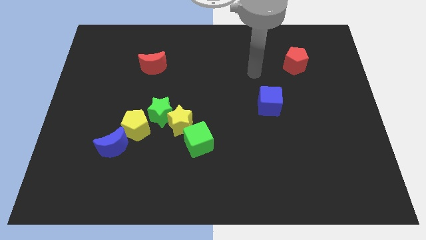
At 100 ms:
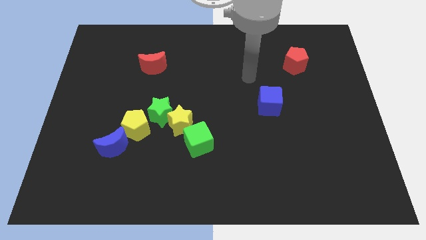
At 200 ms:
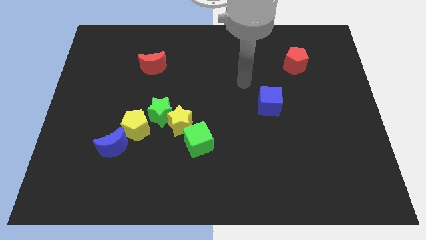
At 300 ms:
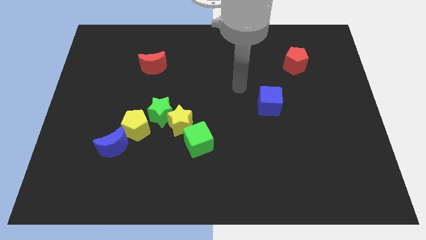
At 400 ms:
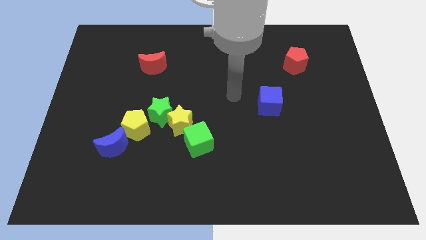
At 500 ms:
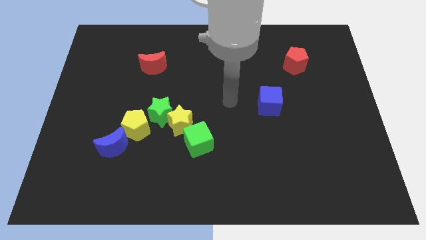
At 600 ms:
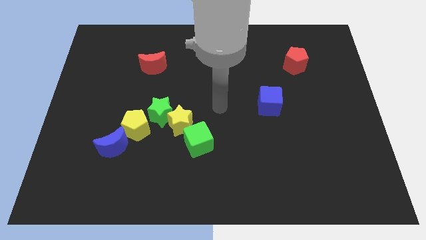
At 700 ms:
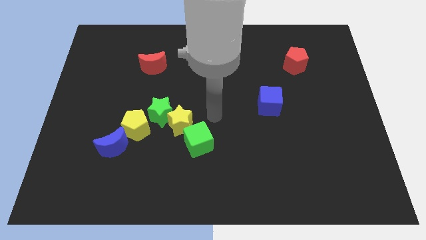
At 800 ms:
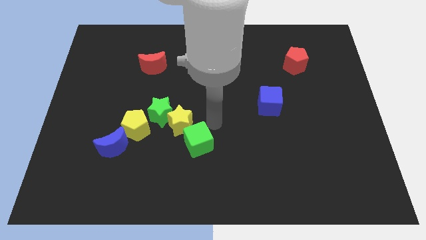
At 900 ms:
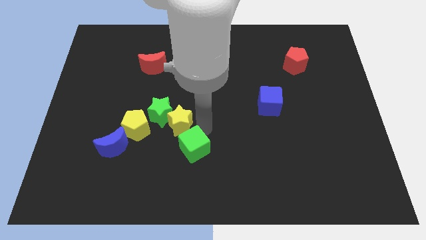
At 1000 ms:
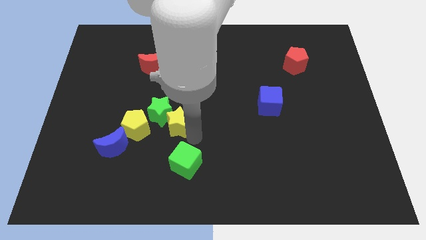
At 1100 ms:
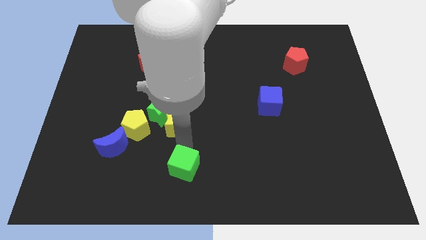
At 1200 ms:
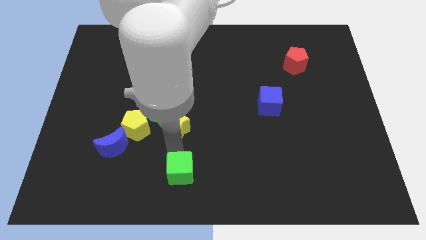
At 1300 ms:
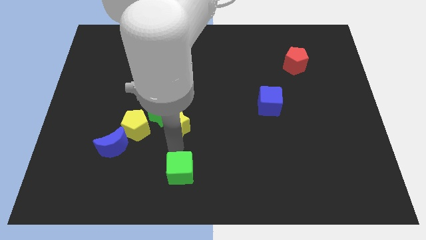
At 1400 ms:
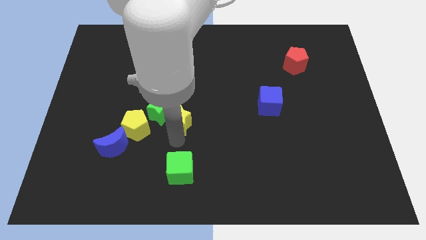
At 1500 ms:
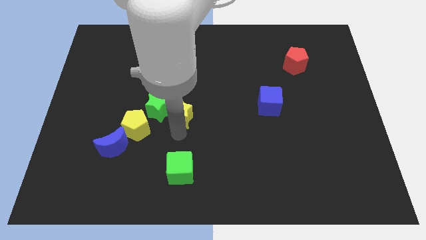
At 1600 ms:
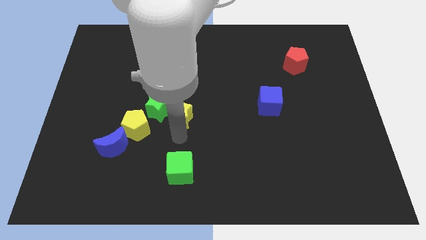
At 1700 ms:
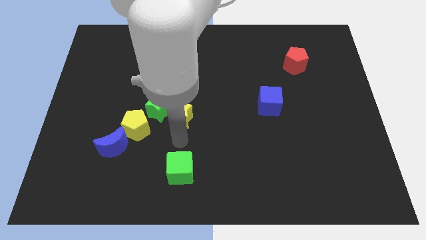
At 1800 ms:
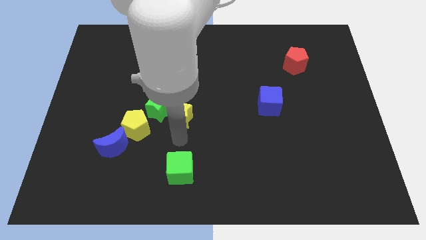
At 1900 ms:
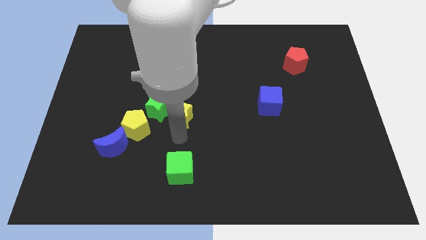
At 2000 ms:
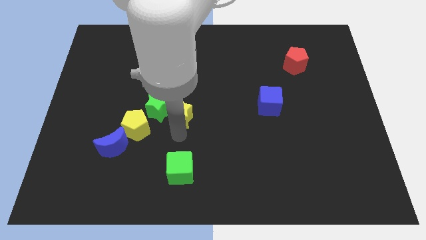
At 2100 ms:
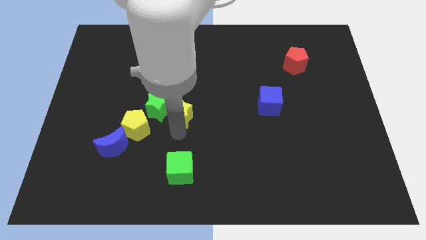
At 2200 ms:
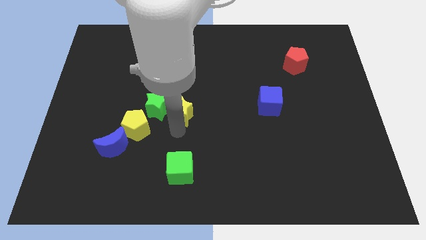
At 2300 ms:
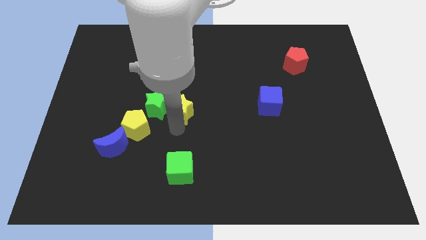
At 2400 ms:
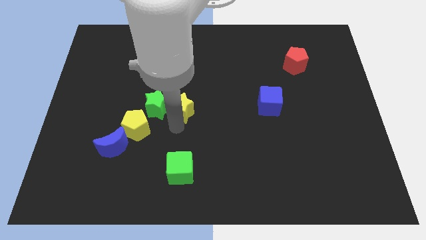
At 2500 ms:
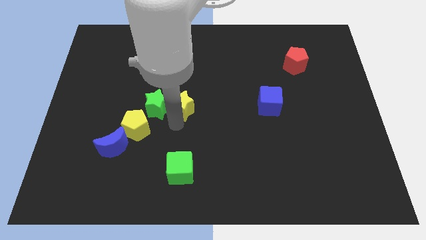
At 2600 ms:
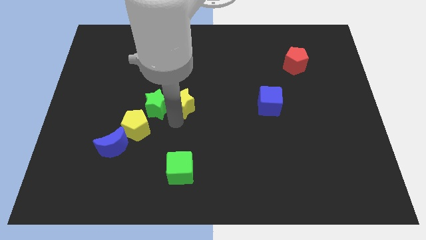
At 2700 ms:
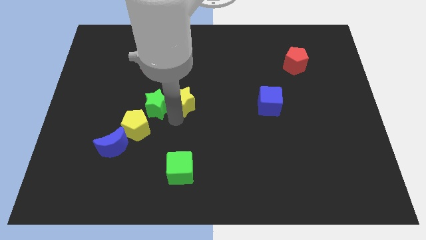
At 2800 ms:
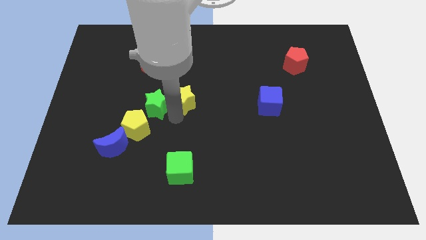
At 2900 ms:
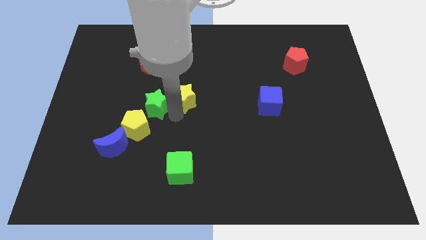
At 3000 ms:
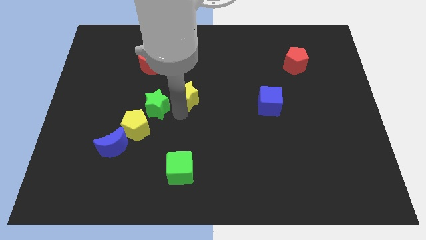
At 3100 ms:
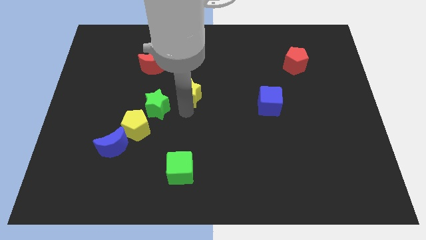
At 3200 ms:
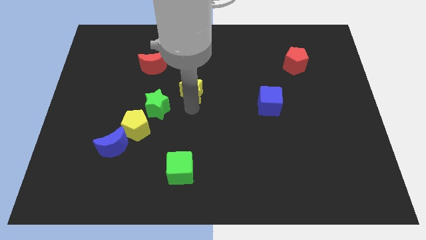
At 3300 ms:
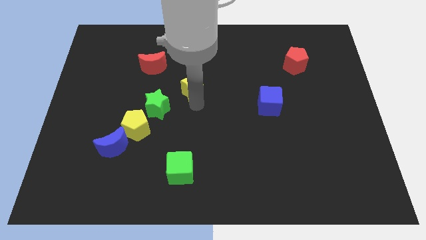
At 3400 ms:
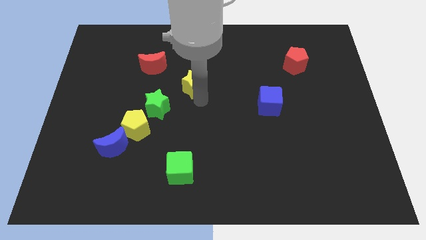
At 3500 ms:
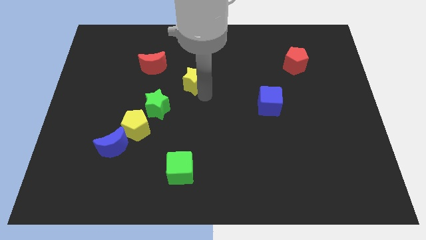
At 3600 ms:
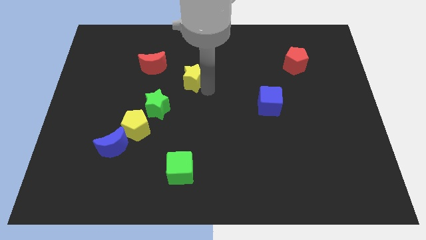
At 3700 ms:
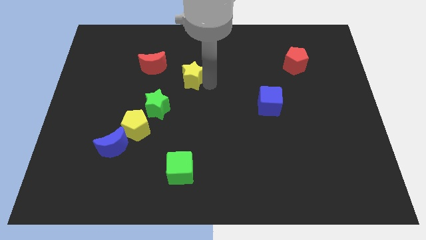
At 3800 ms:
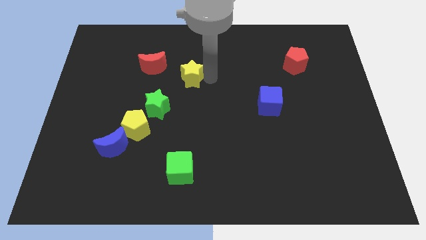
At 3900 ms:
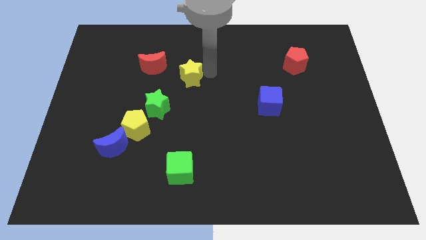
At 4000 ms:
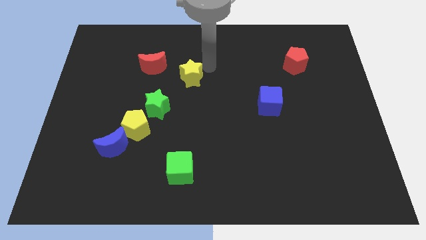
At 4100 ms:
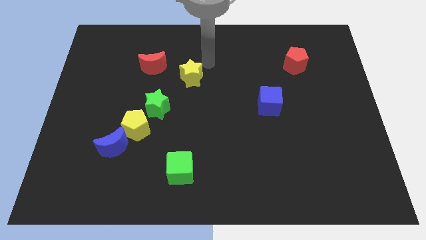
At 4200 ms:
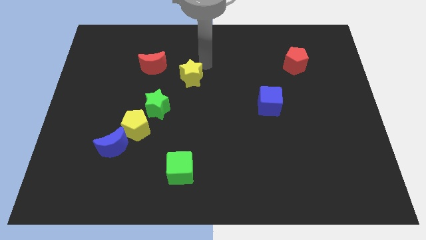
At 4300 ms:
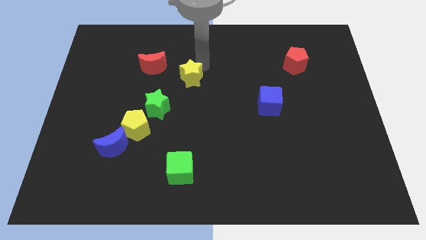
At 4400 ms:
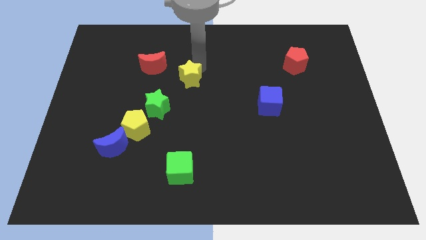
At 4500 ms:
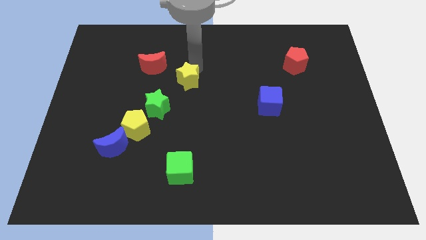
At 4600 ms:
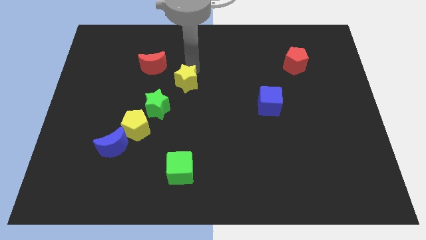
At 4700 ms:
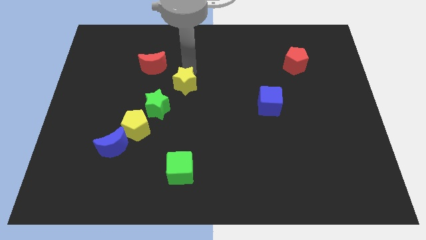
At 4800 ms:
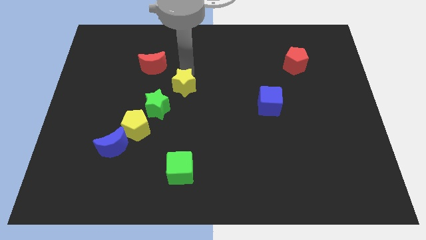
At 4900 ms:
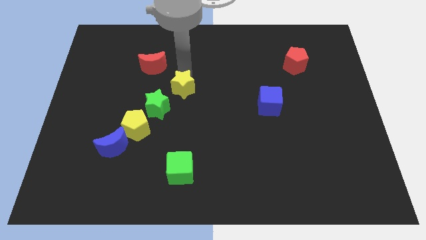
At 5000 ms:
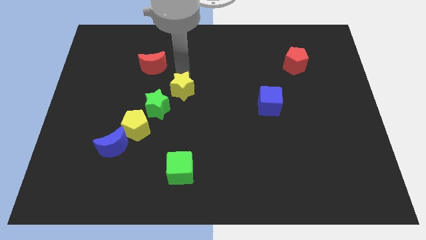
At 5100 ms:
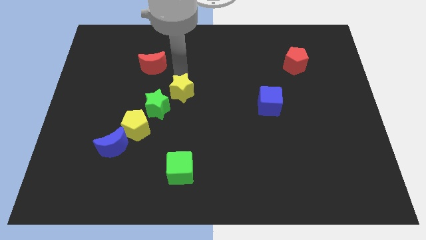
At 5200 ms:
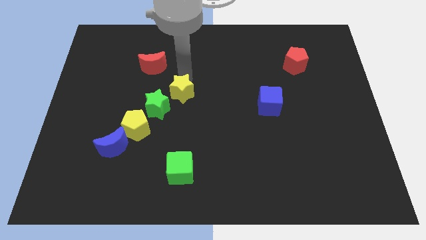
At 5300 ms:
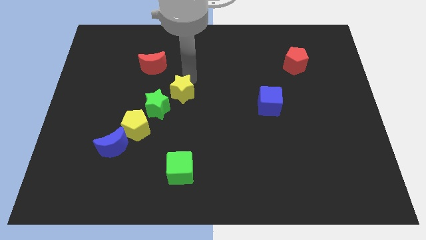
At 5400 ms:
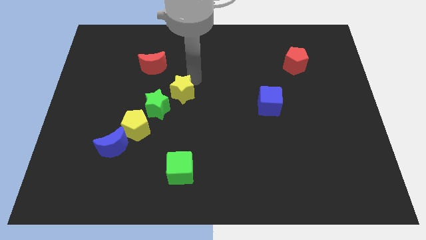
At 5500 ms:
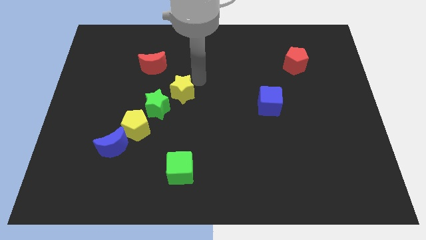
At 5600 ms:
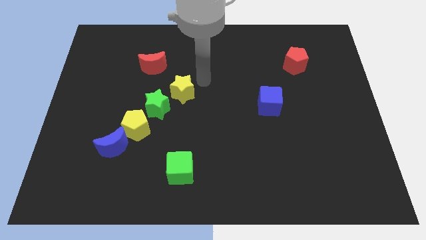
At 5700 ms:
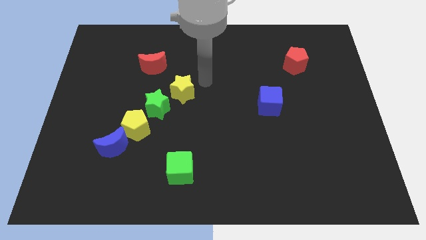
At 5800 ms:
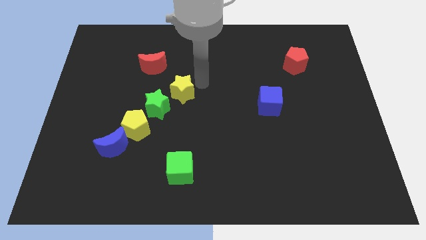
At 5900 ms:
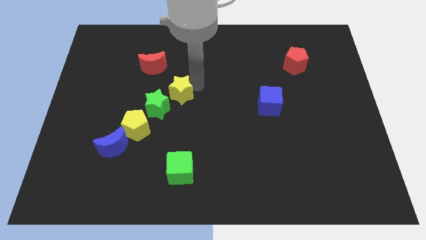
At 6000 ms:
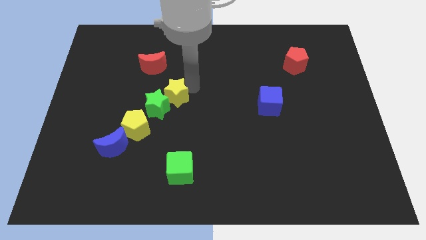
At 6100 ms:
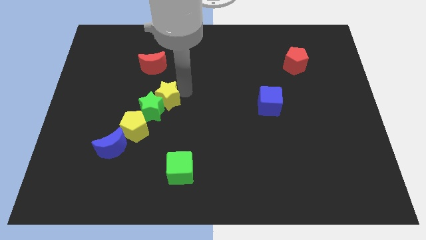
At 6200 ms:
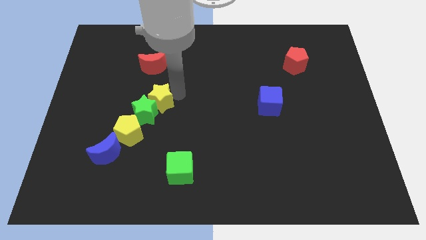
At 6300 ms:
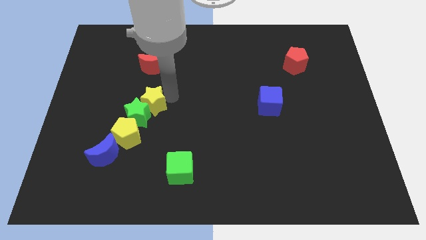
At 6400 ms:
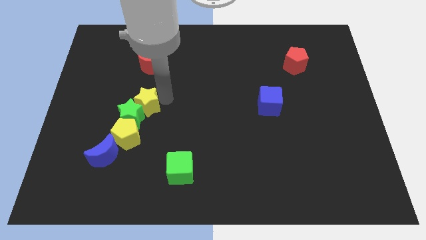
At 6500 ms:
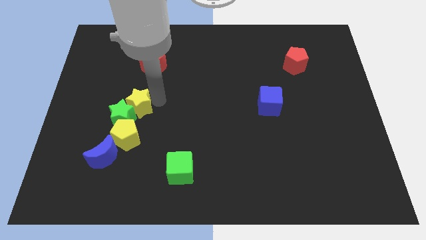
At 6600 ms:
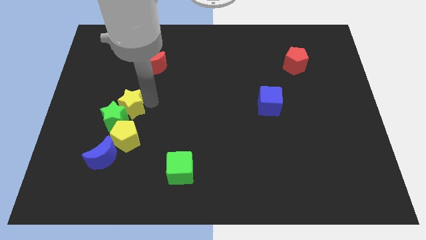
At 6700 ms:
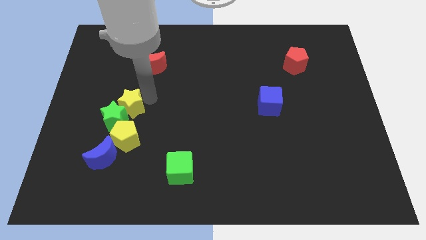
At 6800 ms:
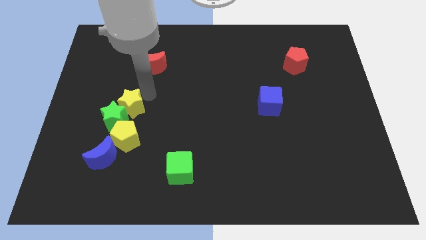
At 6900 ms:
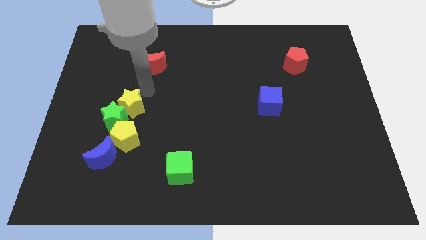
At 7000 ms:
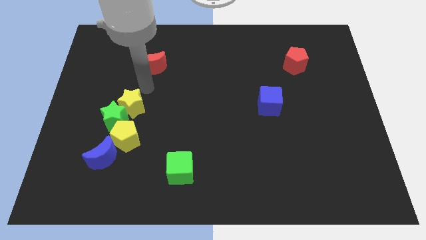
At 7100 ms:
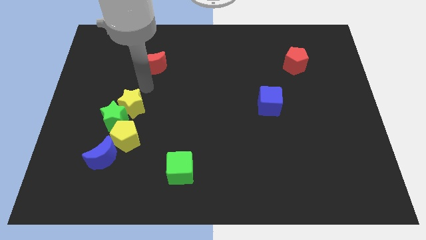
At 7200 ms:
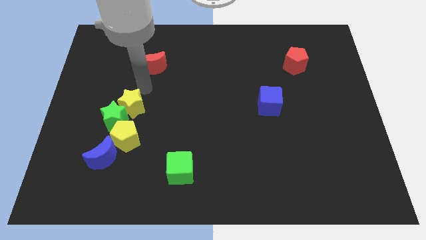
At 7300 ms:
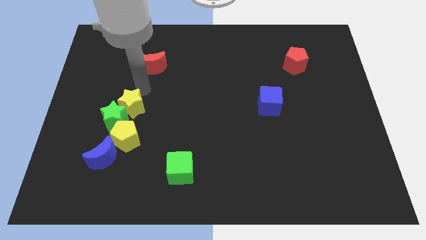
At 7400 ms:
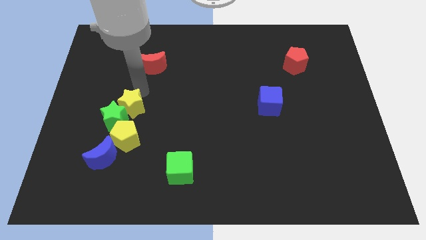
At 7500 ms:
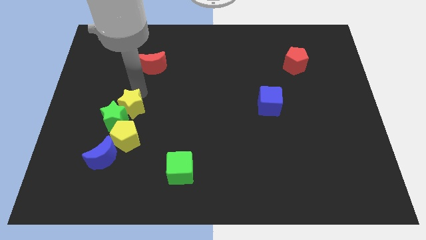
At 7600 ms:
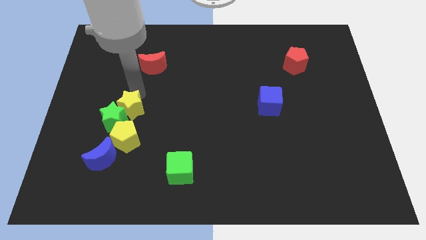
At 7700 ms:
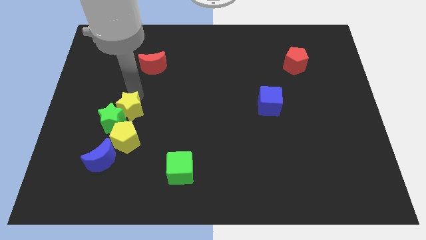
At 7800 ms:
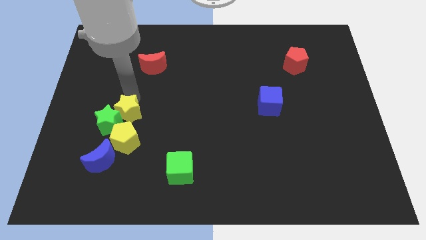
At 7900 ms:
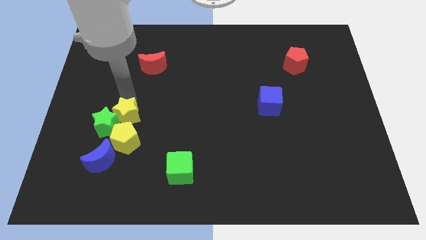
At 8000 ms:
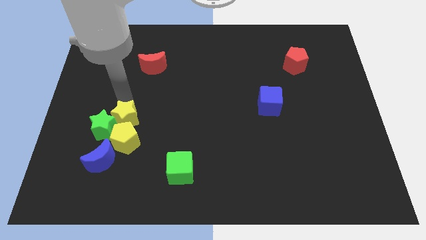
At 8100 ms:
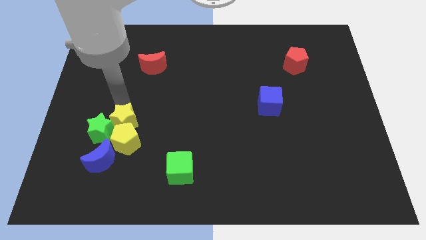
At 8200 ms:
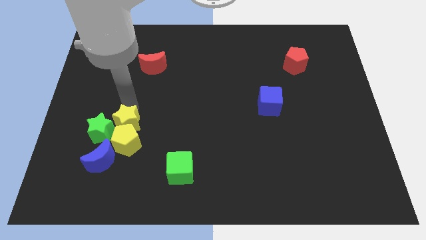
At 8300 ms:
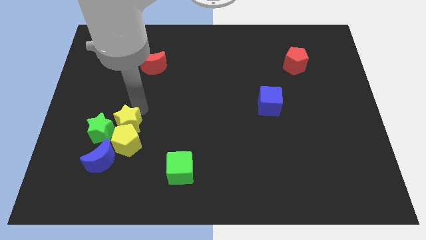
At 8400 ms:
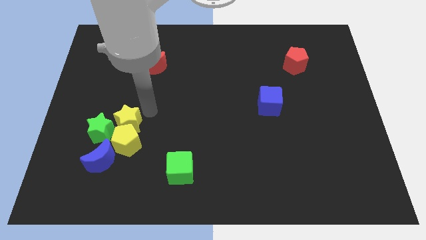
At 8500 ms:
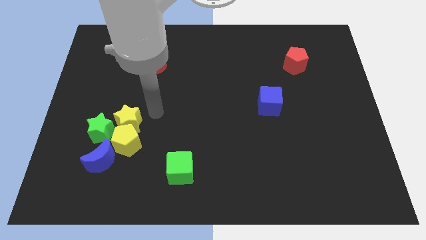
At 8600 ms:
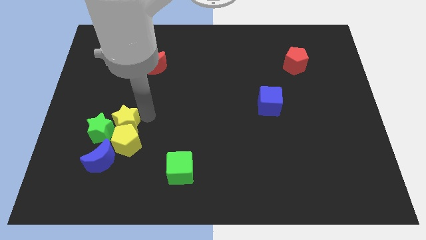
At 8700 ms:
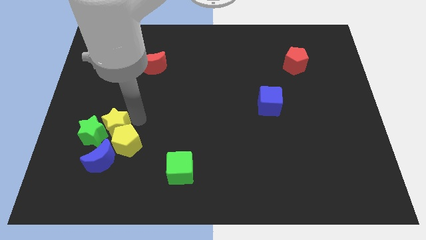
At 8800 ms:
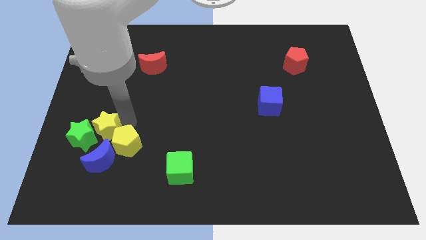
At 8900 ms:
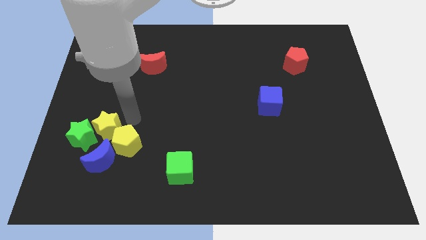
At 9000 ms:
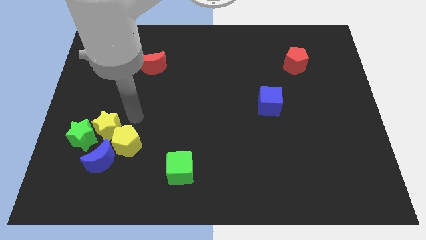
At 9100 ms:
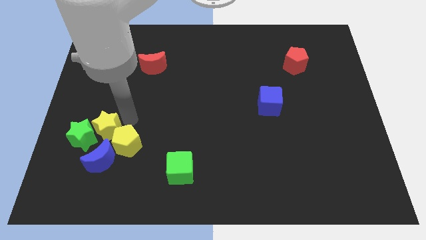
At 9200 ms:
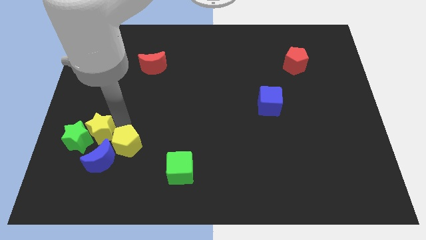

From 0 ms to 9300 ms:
push the yellow star diagonally up and to the left of the blue moon
